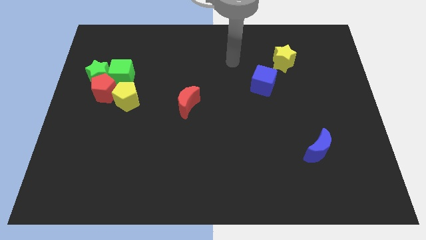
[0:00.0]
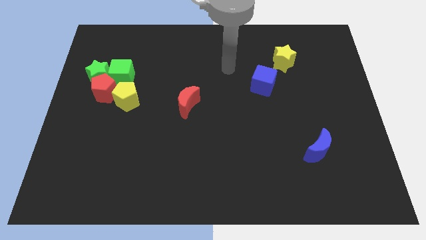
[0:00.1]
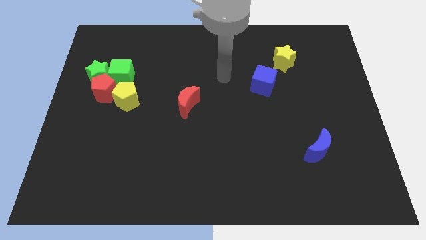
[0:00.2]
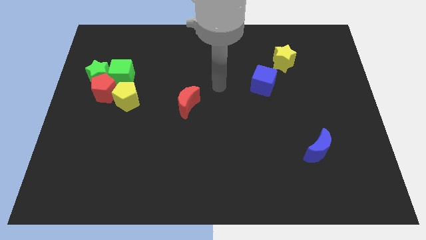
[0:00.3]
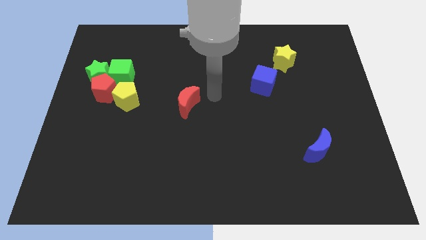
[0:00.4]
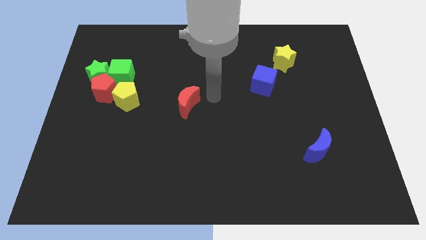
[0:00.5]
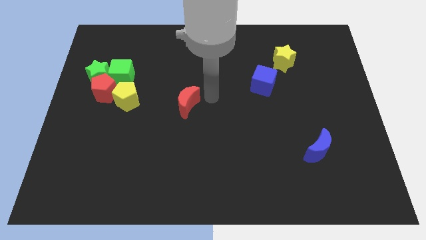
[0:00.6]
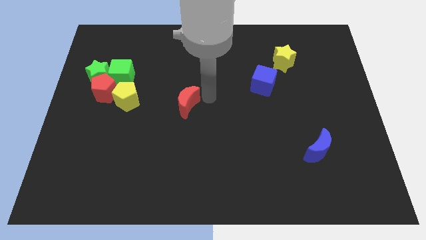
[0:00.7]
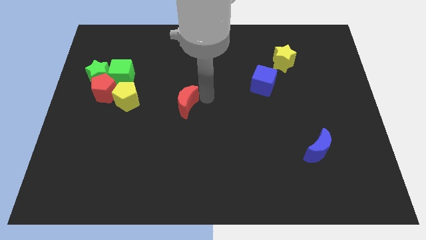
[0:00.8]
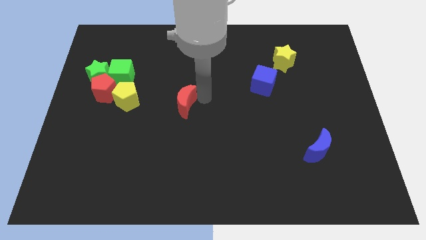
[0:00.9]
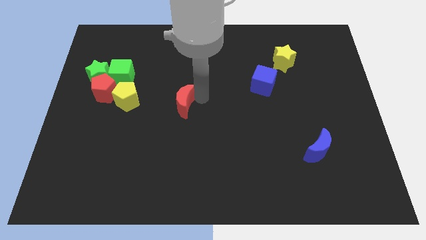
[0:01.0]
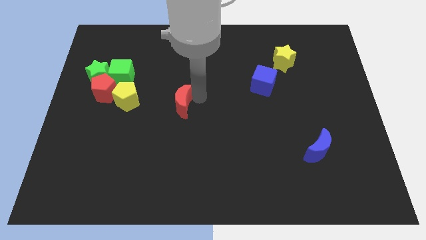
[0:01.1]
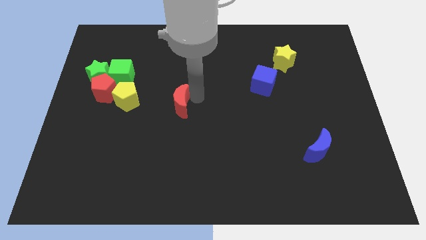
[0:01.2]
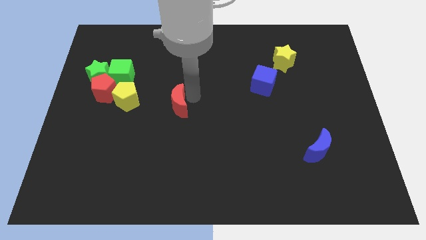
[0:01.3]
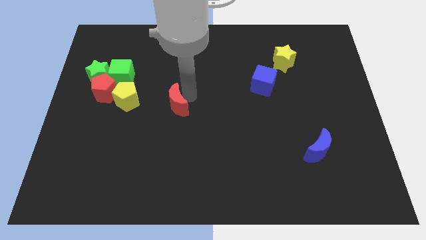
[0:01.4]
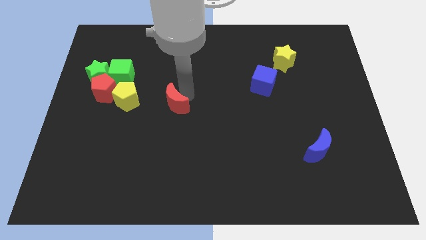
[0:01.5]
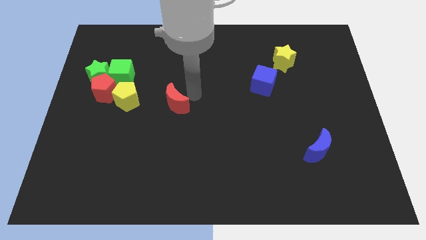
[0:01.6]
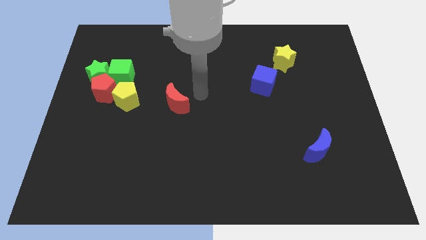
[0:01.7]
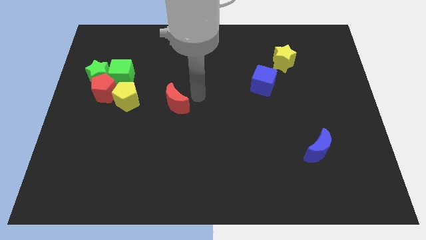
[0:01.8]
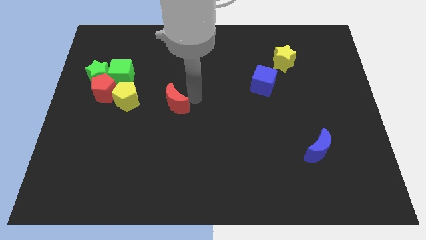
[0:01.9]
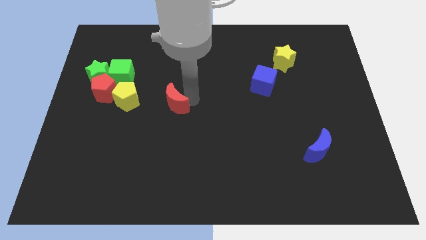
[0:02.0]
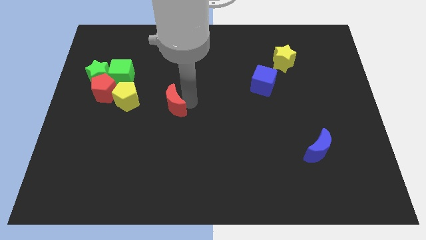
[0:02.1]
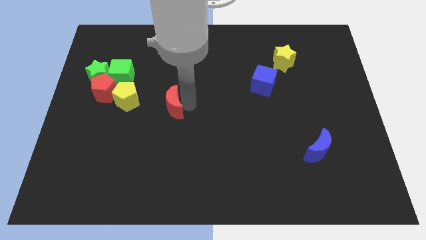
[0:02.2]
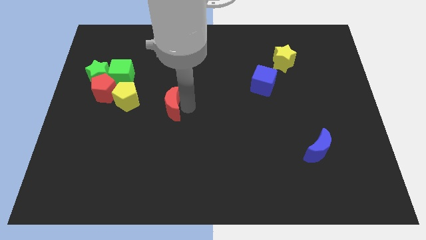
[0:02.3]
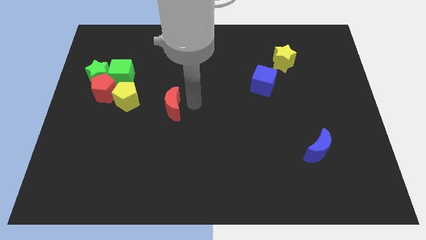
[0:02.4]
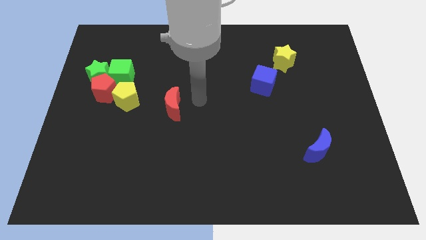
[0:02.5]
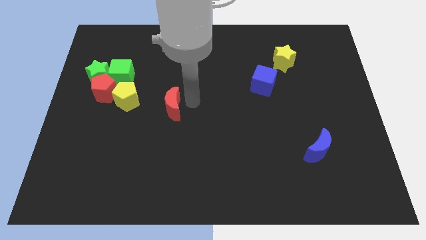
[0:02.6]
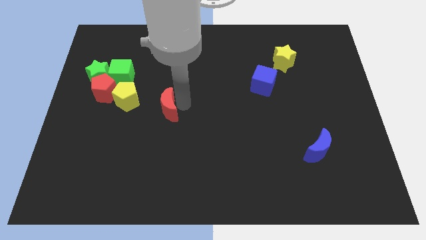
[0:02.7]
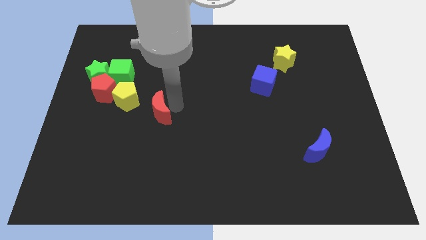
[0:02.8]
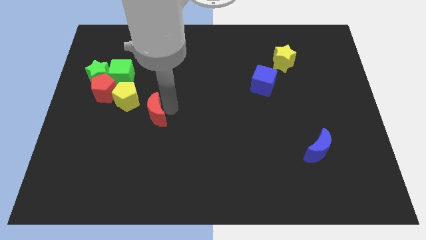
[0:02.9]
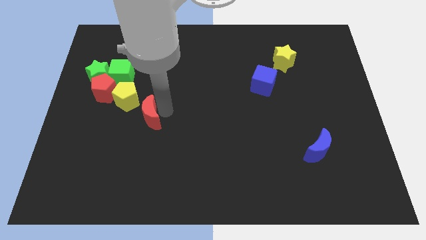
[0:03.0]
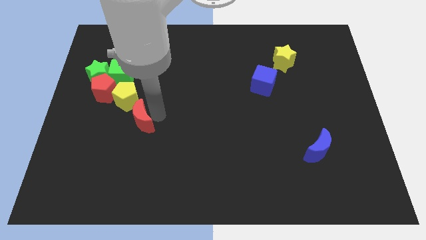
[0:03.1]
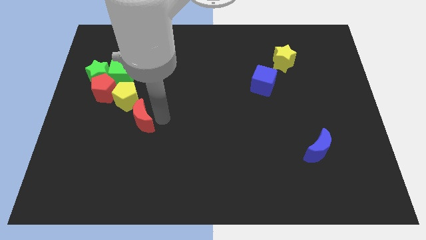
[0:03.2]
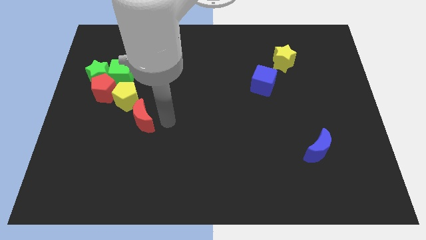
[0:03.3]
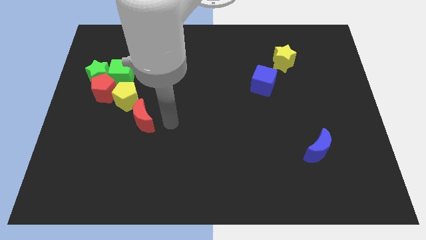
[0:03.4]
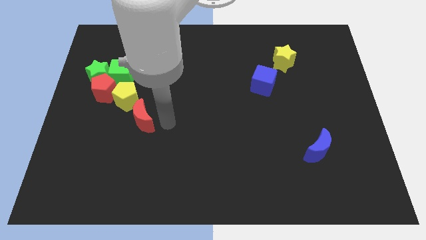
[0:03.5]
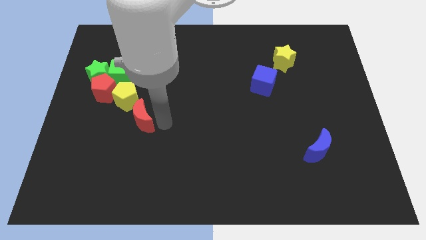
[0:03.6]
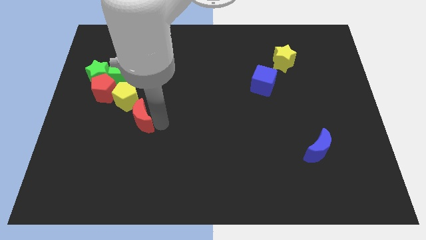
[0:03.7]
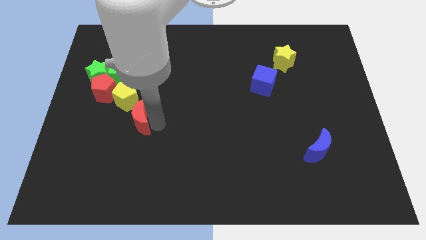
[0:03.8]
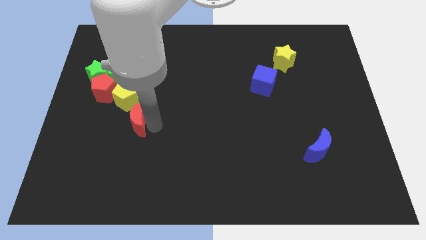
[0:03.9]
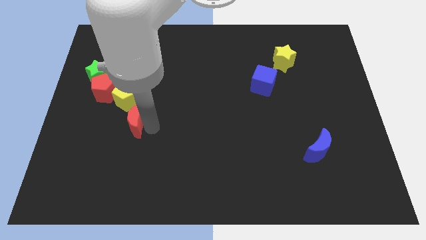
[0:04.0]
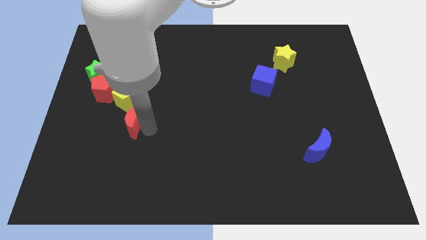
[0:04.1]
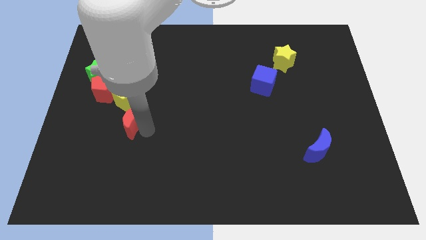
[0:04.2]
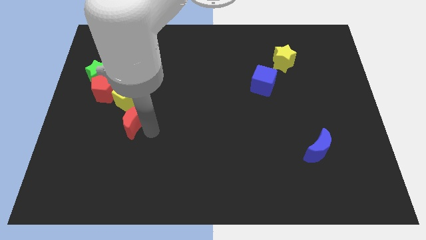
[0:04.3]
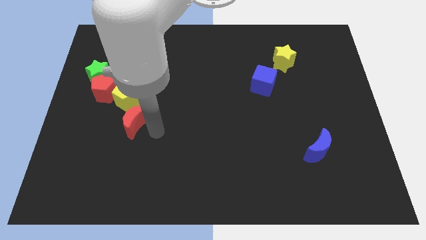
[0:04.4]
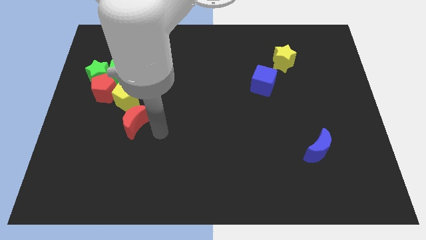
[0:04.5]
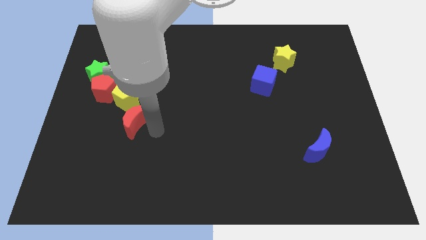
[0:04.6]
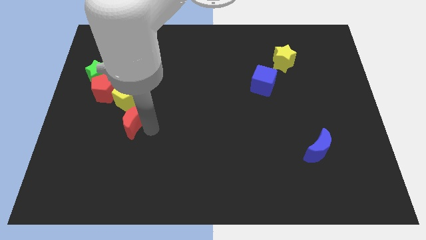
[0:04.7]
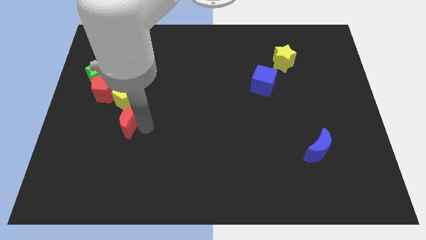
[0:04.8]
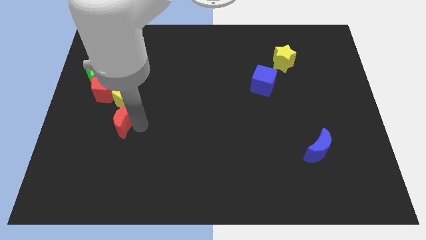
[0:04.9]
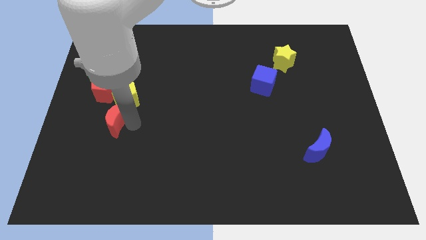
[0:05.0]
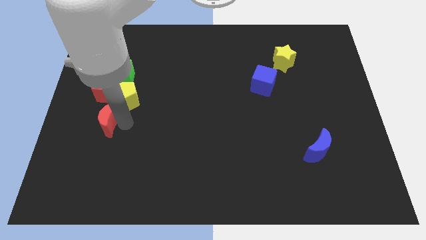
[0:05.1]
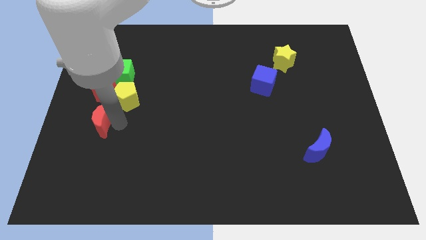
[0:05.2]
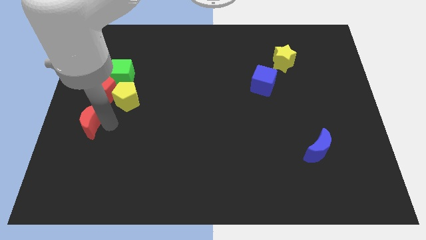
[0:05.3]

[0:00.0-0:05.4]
slide the red moon to the left side

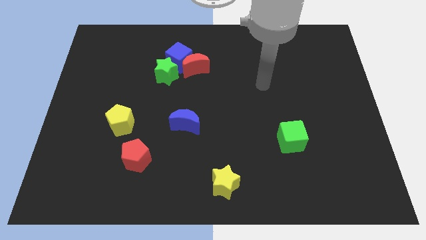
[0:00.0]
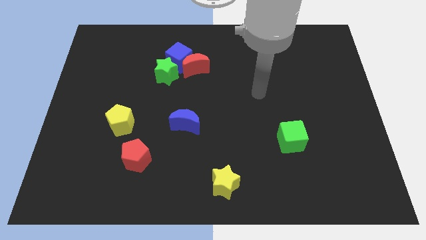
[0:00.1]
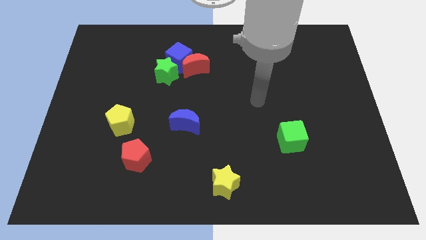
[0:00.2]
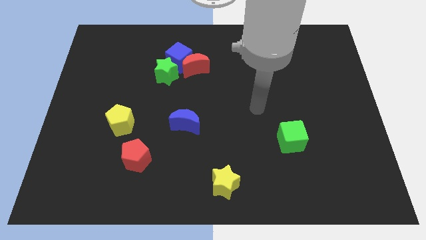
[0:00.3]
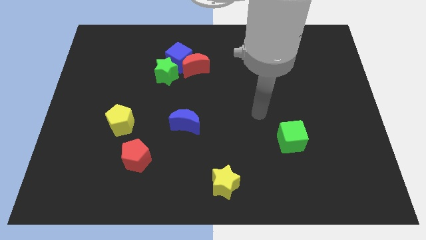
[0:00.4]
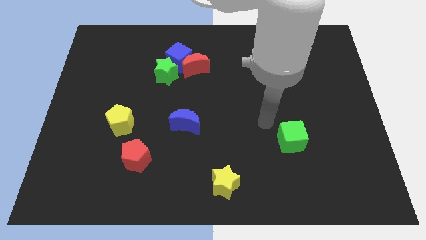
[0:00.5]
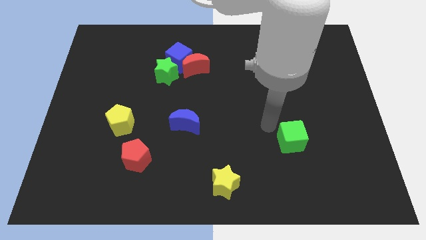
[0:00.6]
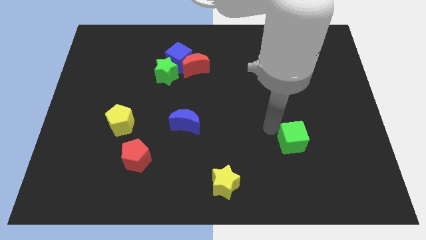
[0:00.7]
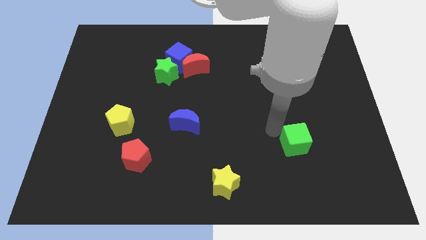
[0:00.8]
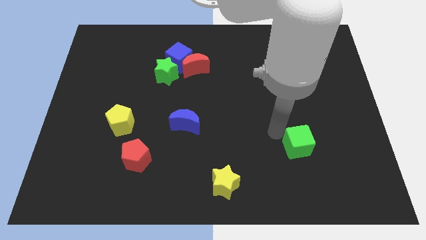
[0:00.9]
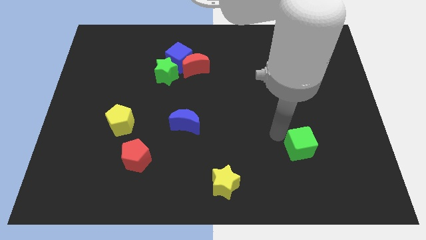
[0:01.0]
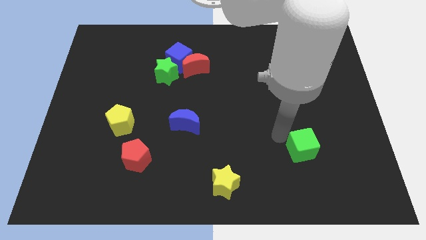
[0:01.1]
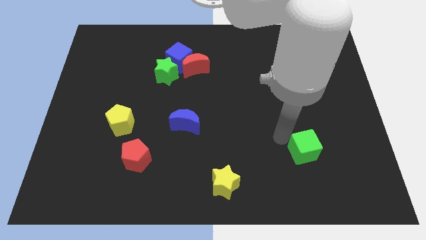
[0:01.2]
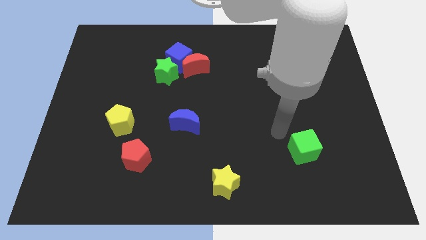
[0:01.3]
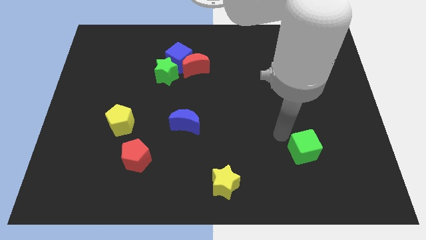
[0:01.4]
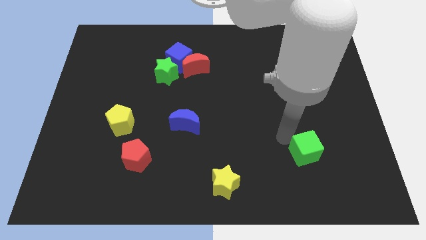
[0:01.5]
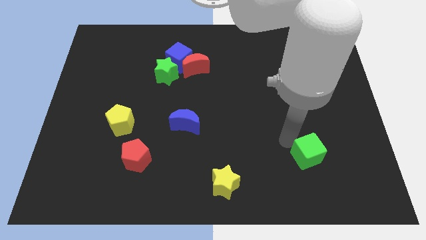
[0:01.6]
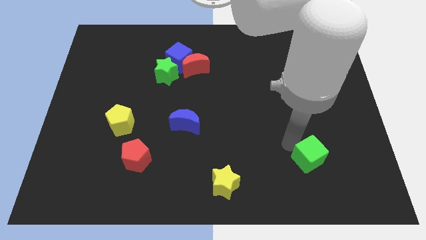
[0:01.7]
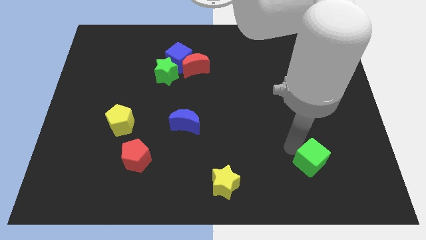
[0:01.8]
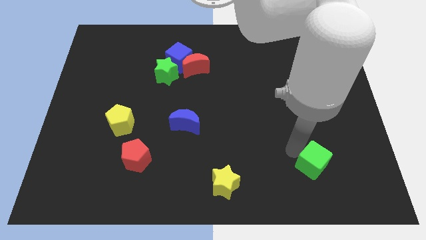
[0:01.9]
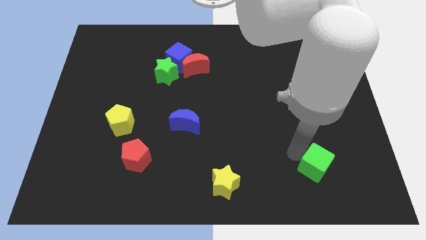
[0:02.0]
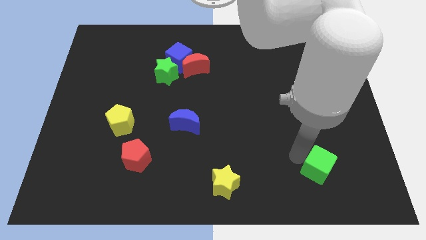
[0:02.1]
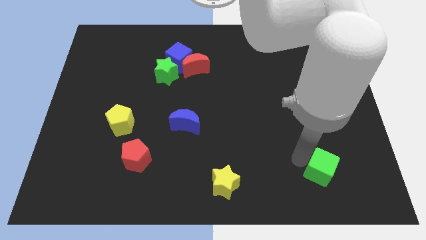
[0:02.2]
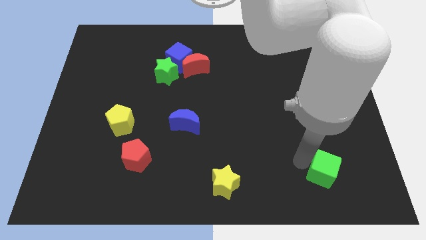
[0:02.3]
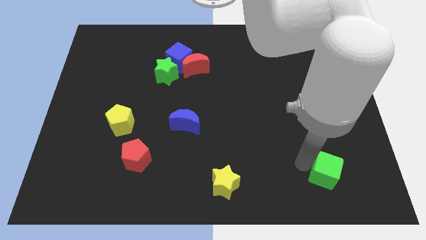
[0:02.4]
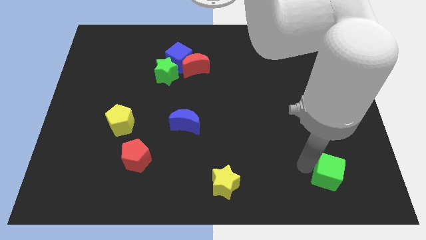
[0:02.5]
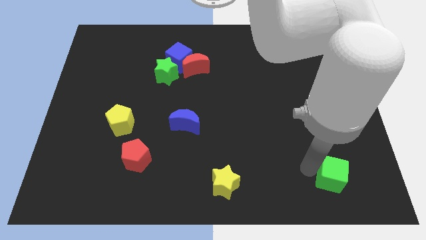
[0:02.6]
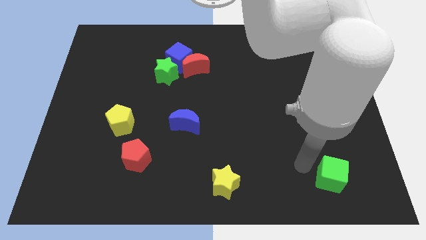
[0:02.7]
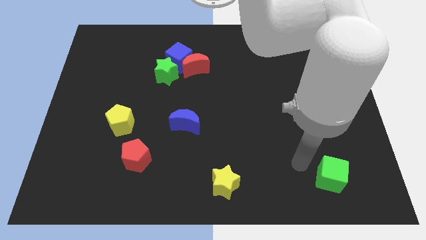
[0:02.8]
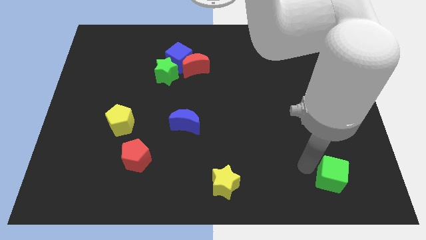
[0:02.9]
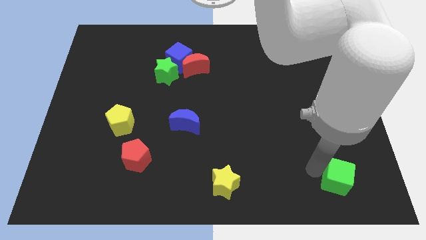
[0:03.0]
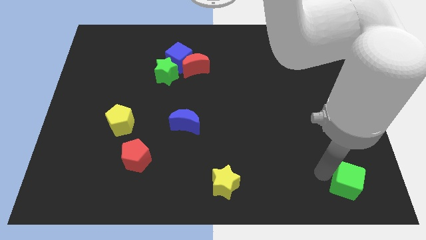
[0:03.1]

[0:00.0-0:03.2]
move the green cube to the bottom right
